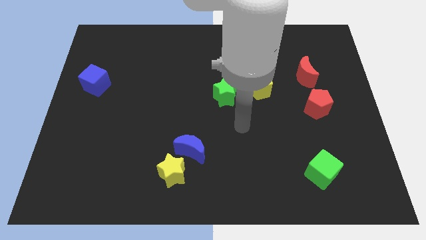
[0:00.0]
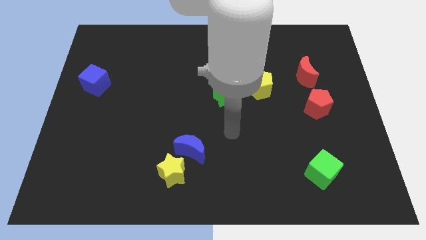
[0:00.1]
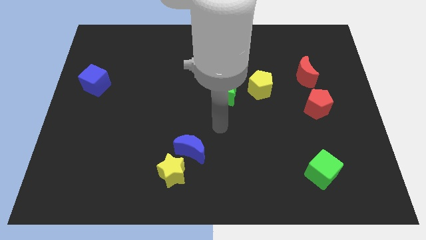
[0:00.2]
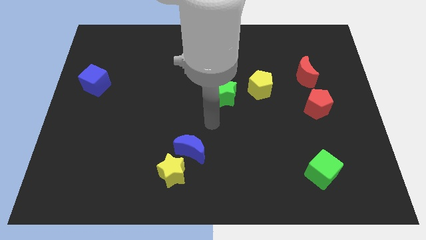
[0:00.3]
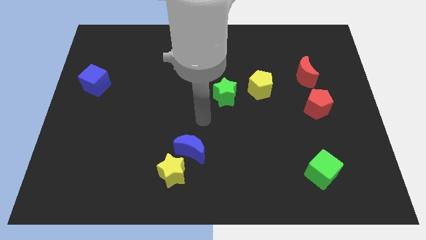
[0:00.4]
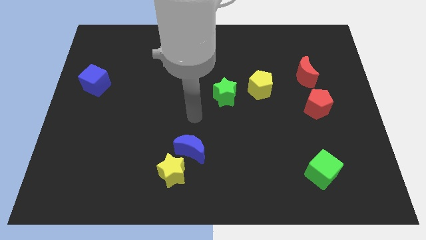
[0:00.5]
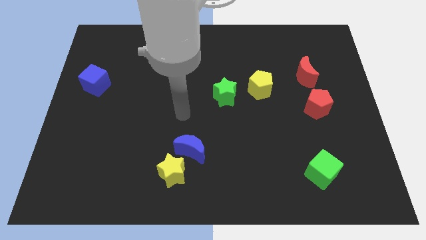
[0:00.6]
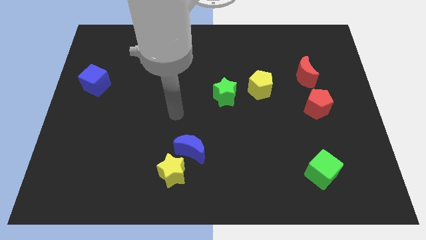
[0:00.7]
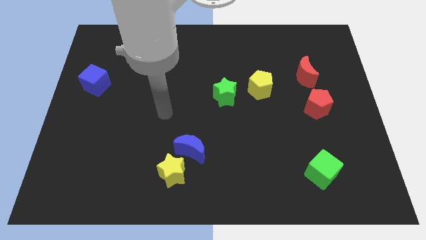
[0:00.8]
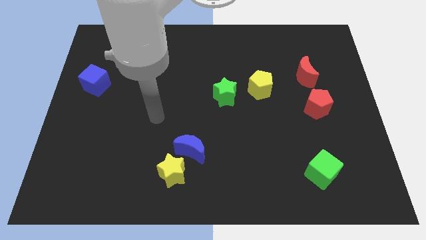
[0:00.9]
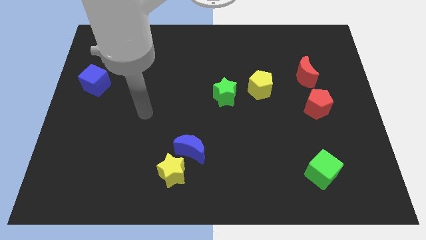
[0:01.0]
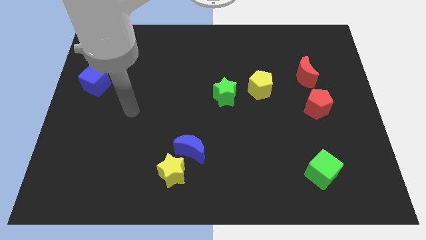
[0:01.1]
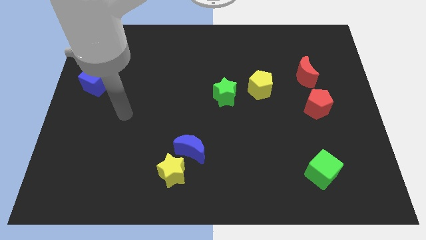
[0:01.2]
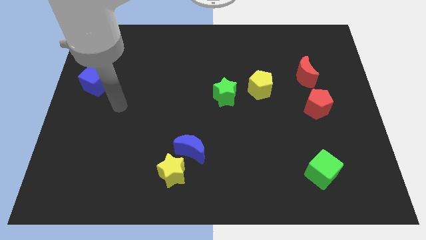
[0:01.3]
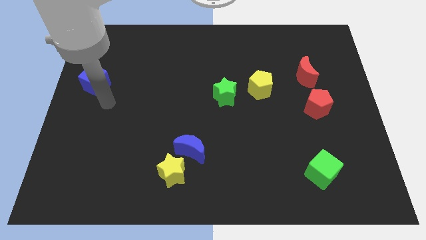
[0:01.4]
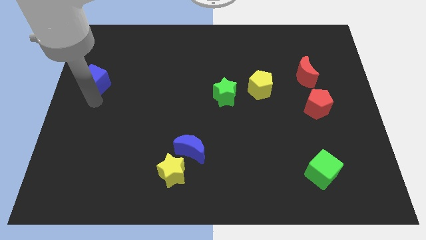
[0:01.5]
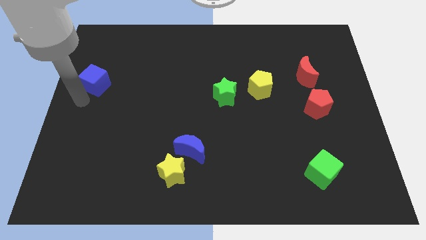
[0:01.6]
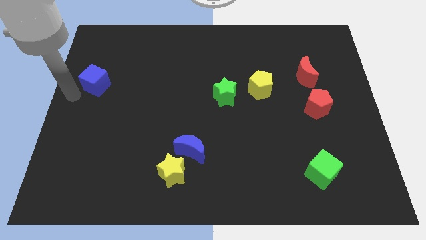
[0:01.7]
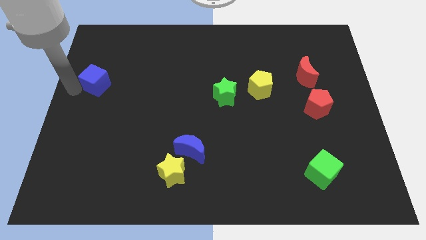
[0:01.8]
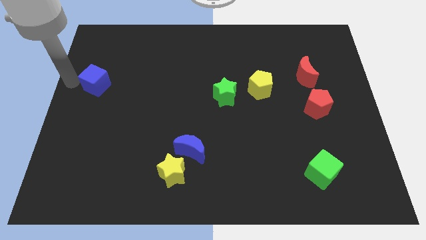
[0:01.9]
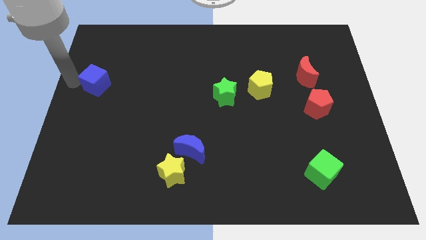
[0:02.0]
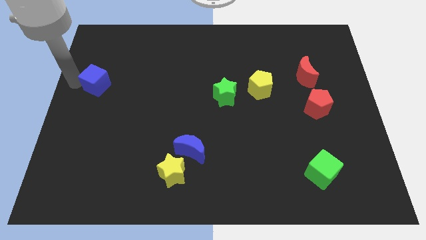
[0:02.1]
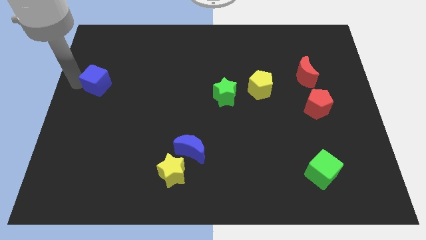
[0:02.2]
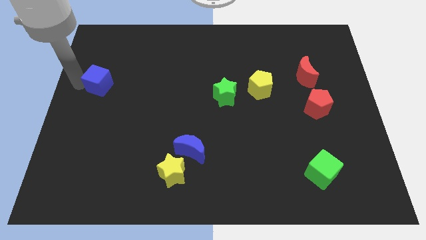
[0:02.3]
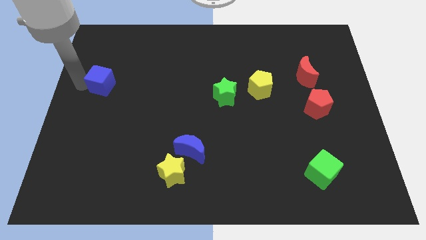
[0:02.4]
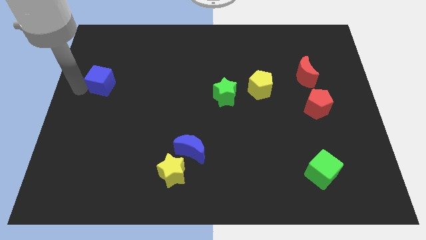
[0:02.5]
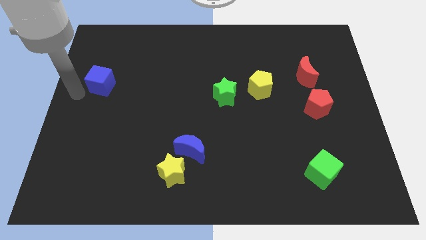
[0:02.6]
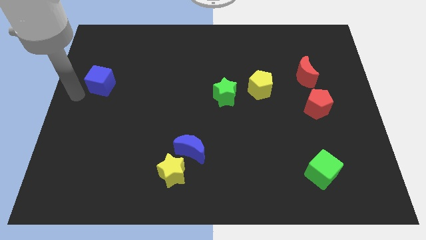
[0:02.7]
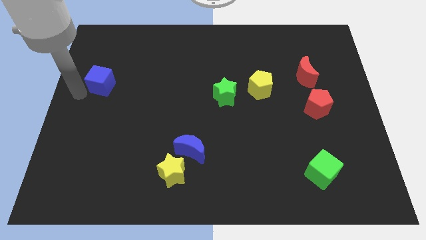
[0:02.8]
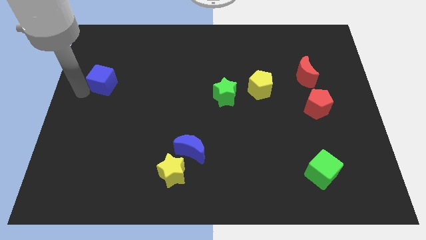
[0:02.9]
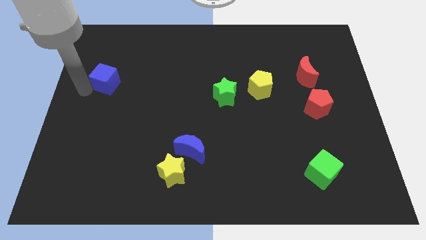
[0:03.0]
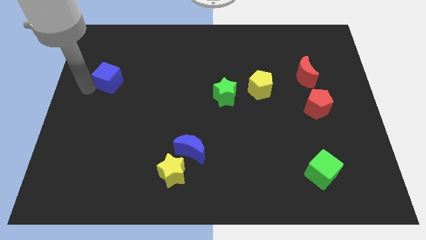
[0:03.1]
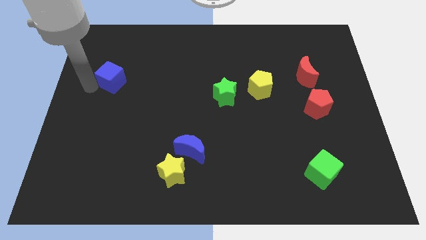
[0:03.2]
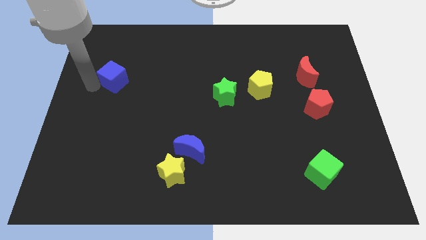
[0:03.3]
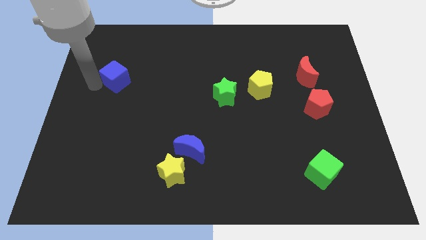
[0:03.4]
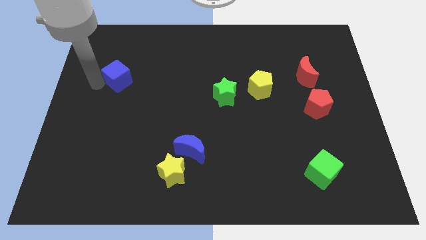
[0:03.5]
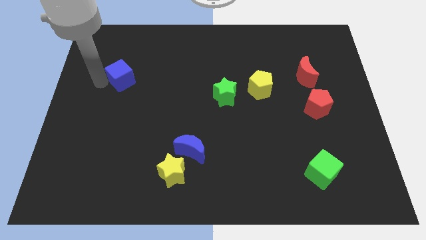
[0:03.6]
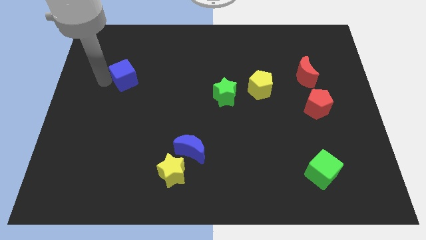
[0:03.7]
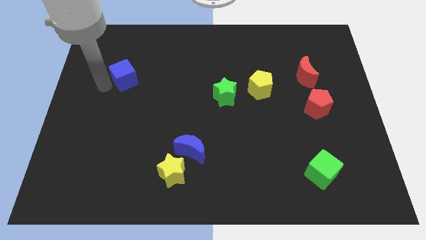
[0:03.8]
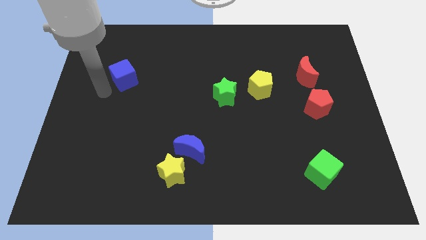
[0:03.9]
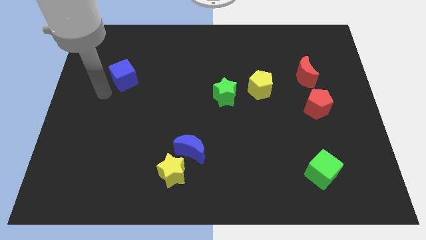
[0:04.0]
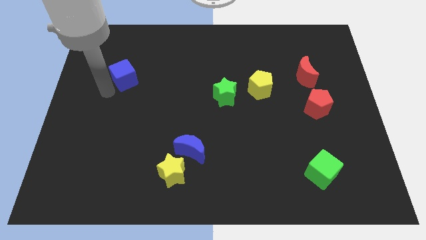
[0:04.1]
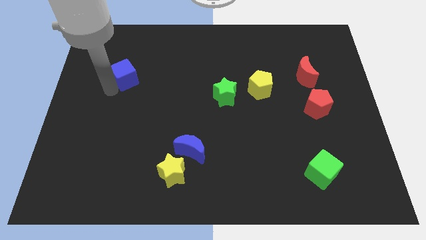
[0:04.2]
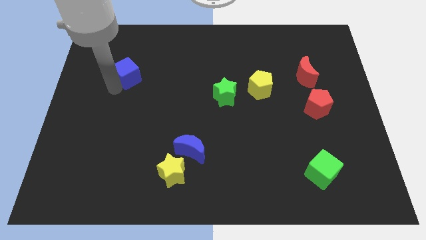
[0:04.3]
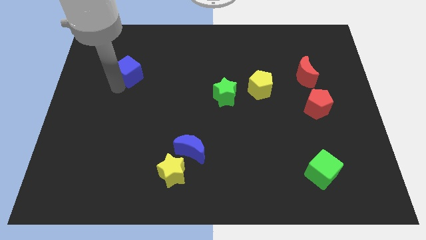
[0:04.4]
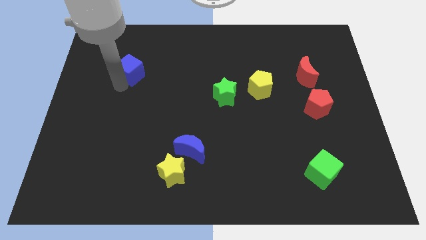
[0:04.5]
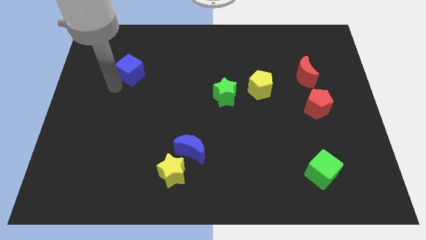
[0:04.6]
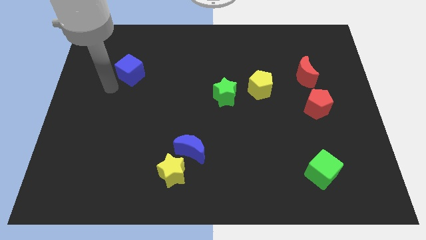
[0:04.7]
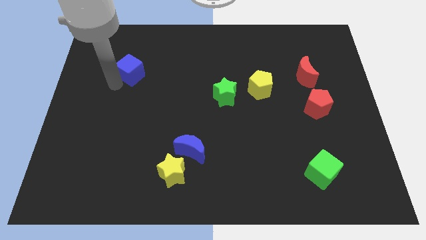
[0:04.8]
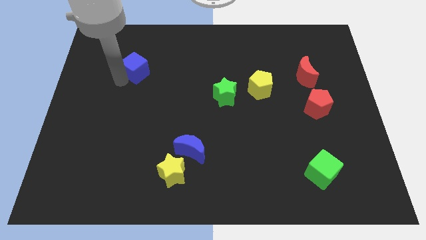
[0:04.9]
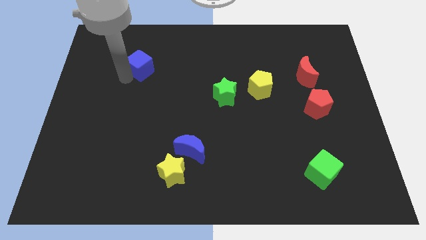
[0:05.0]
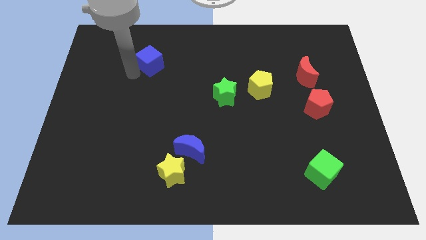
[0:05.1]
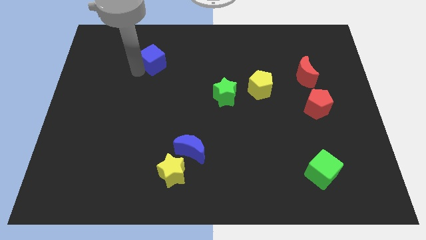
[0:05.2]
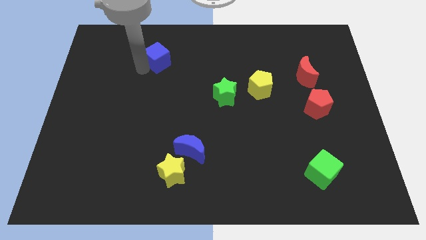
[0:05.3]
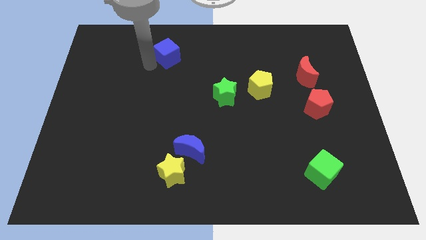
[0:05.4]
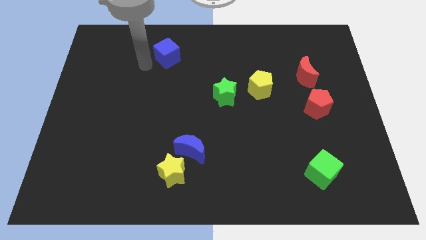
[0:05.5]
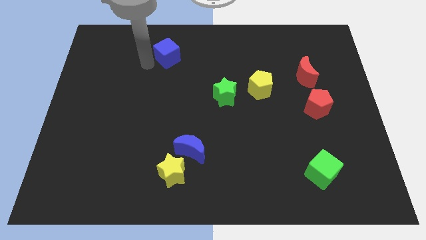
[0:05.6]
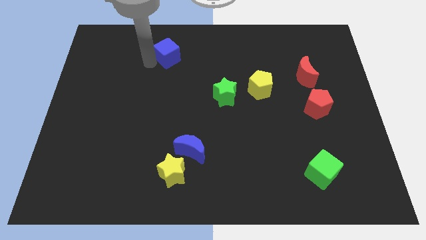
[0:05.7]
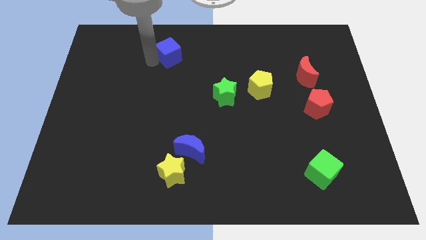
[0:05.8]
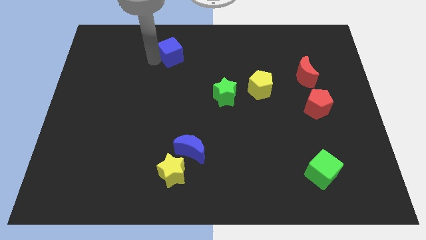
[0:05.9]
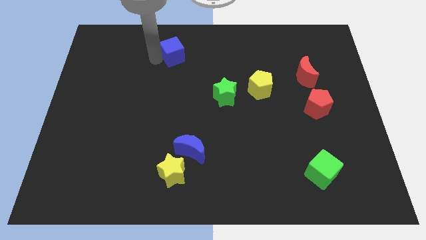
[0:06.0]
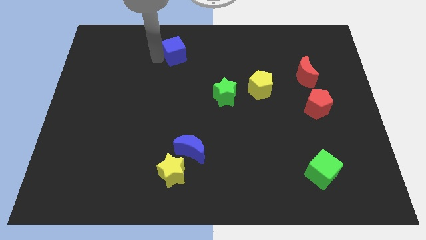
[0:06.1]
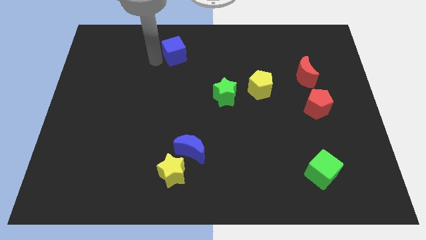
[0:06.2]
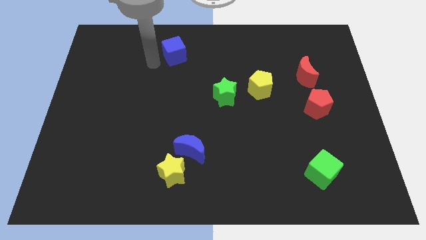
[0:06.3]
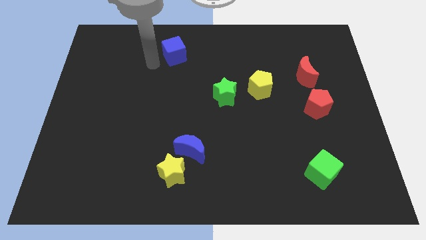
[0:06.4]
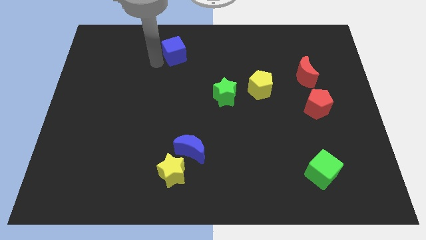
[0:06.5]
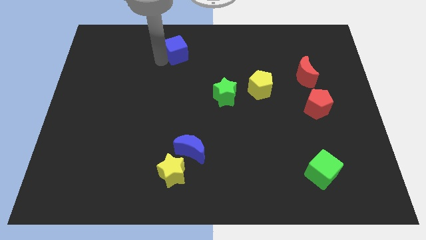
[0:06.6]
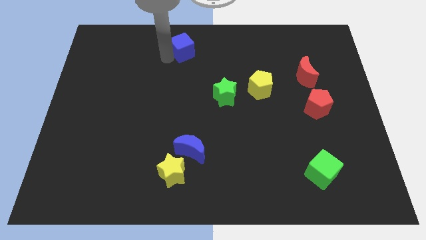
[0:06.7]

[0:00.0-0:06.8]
push the blue cube to the top
